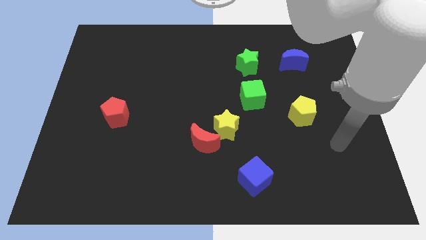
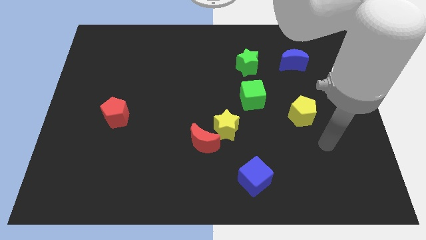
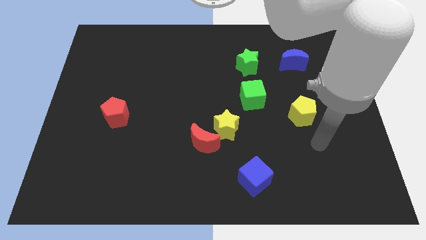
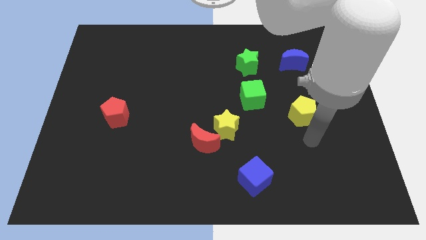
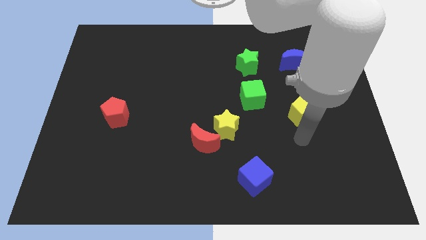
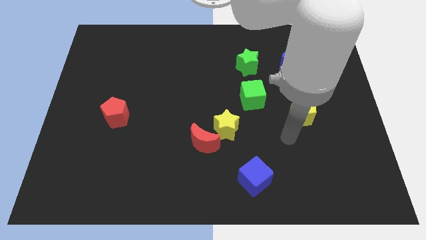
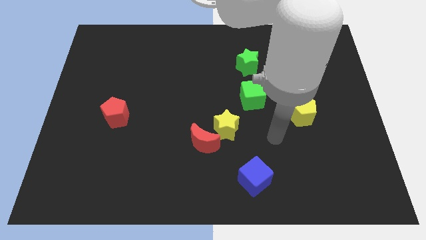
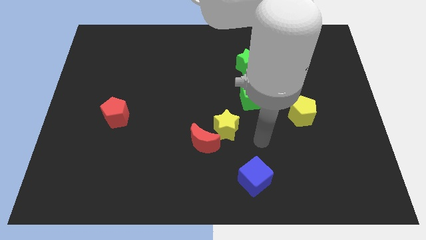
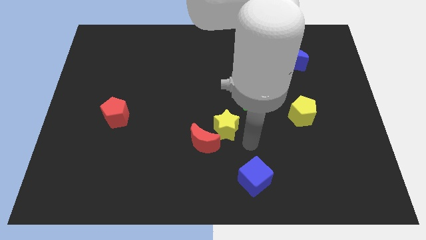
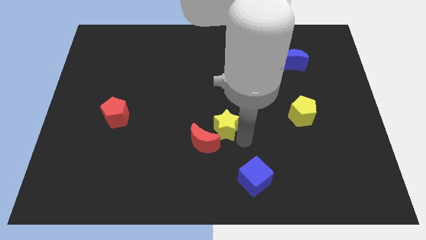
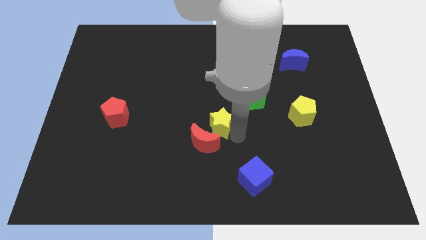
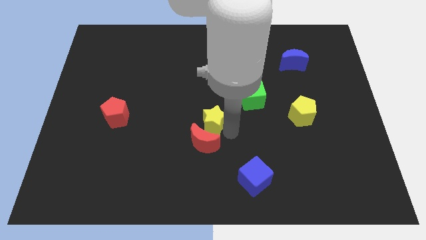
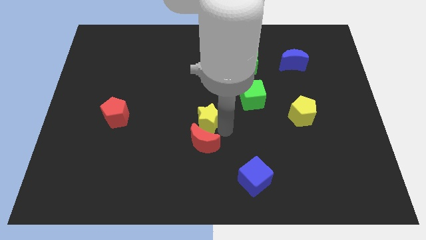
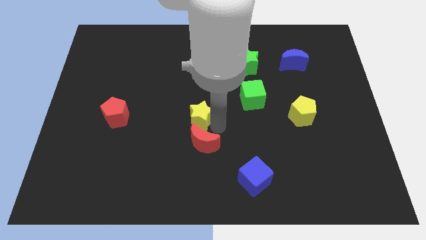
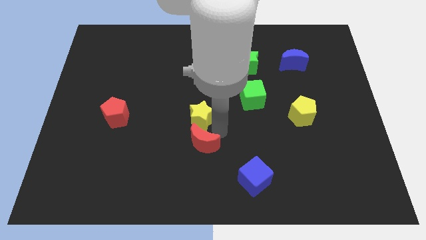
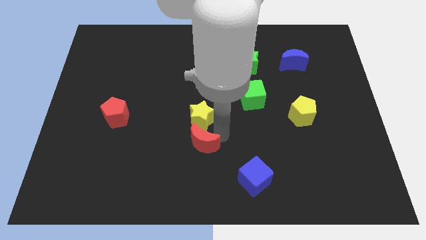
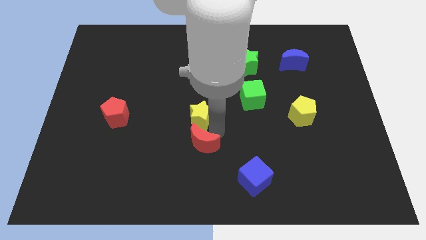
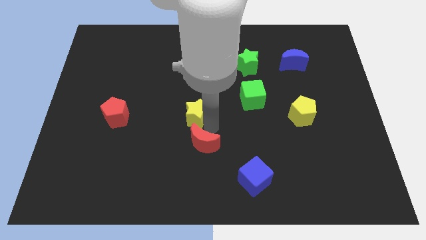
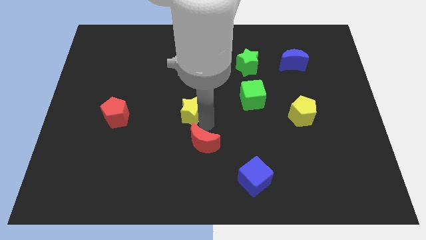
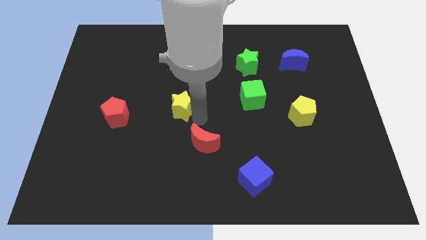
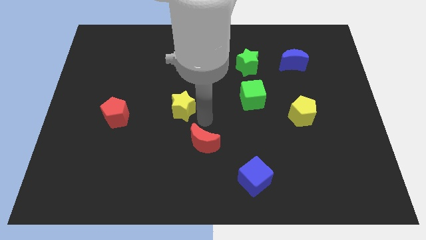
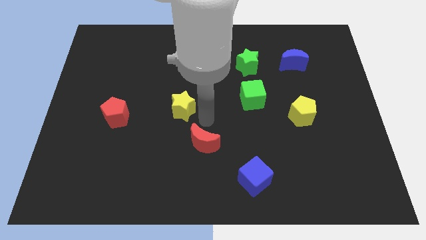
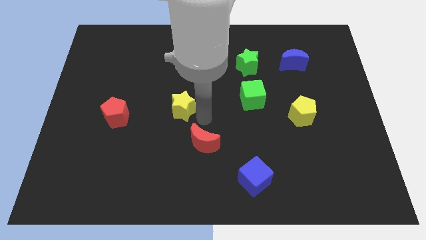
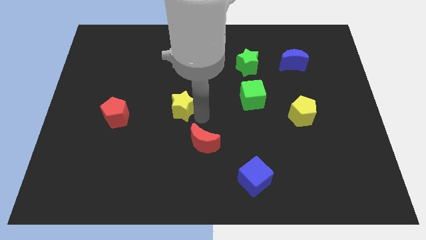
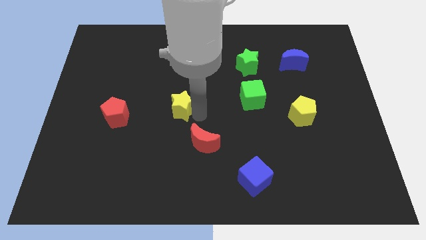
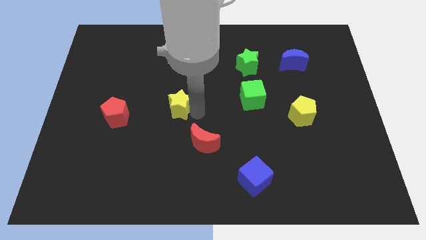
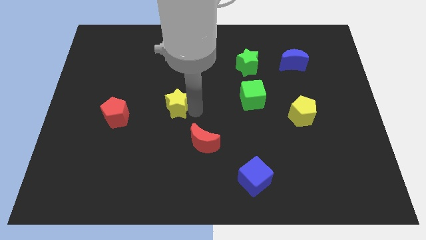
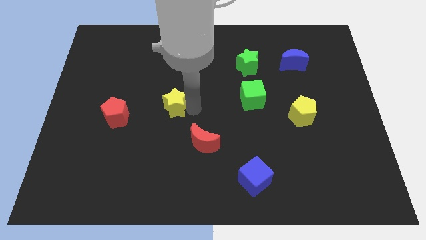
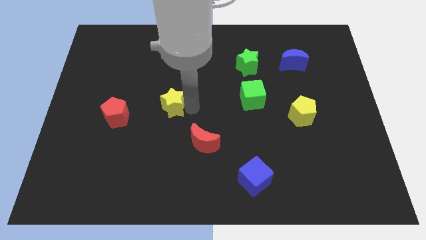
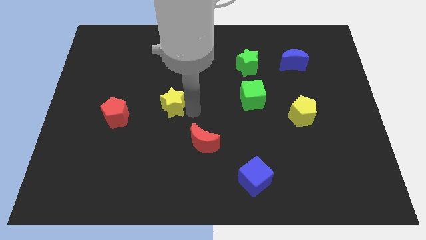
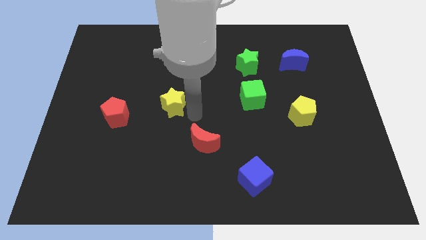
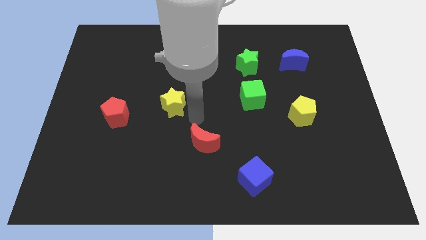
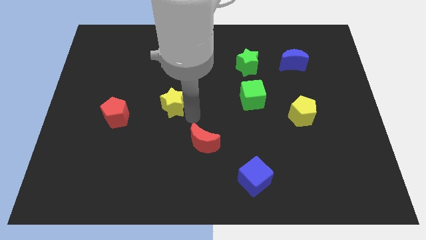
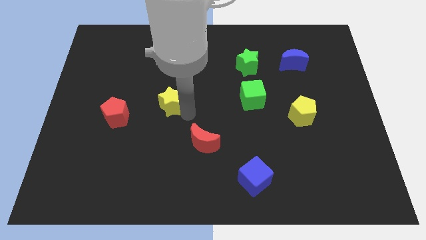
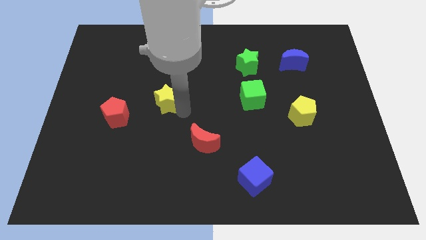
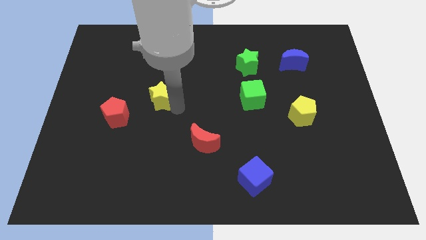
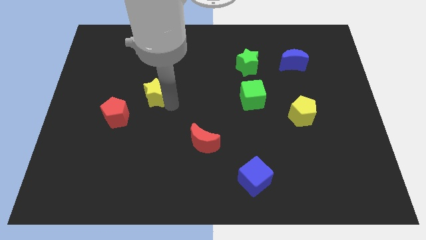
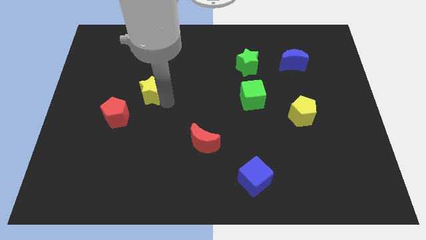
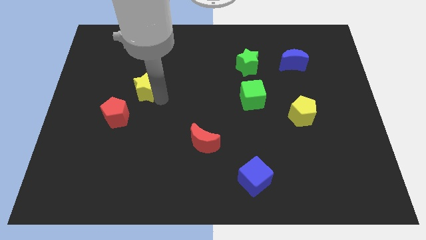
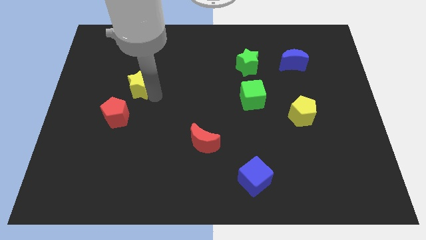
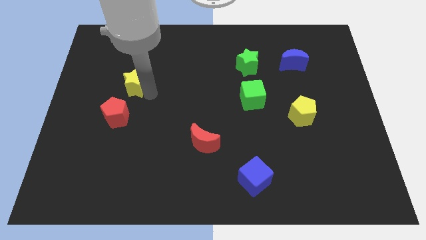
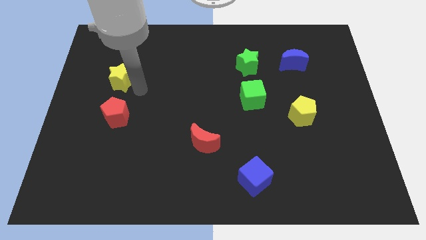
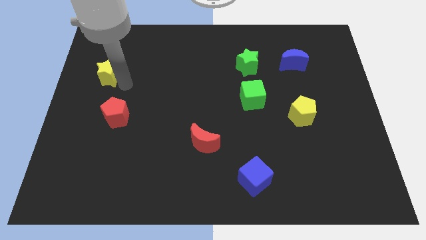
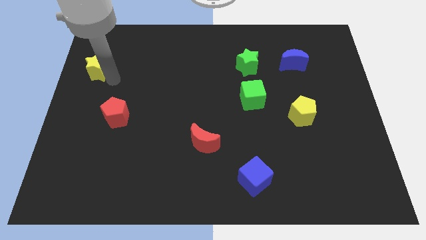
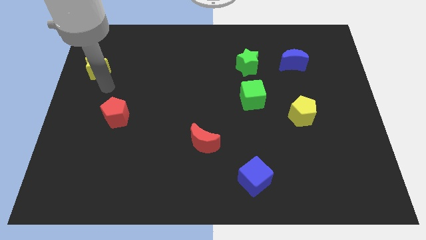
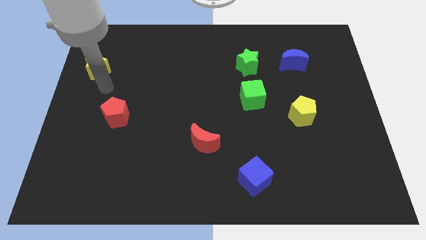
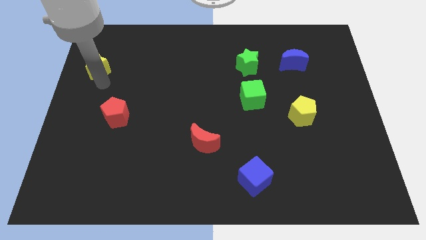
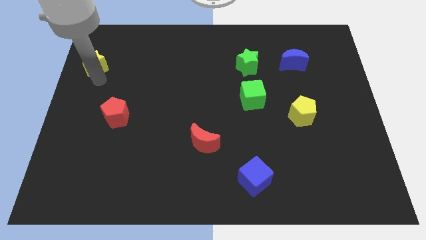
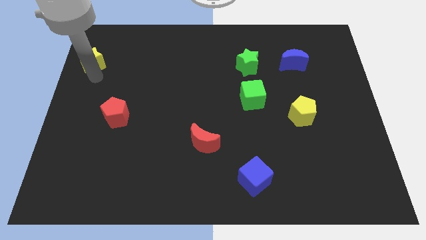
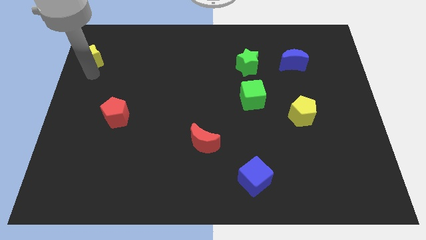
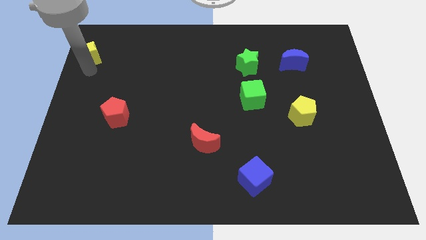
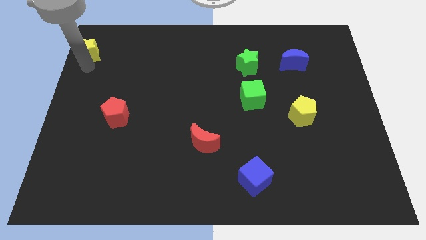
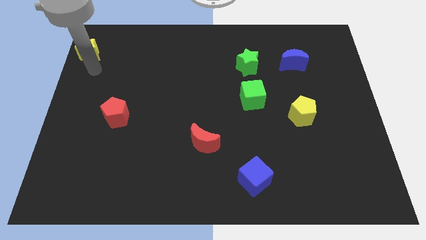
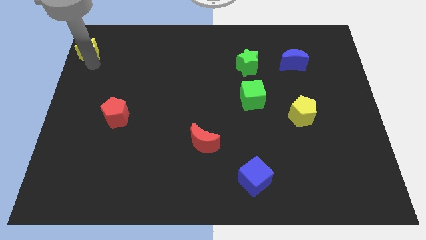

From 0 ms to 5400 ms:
move the yellow star to the top left of the board
